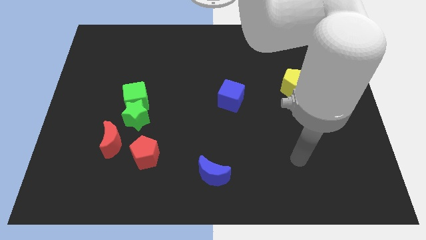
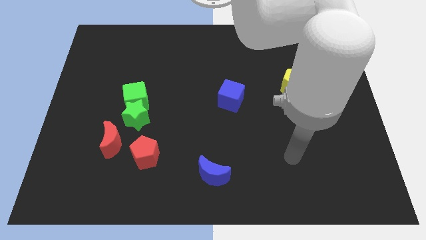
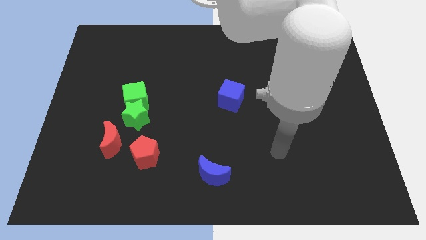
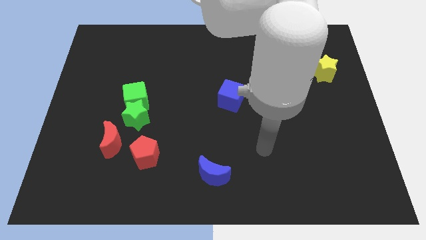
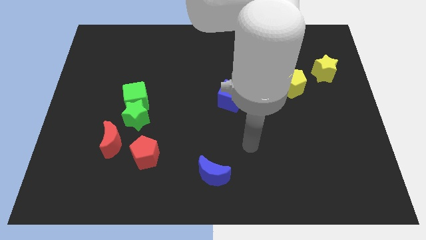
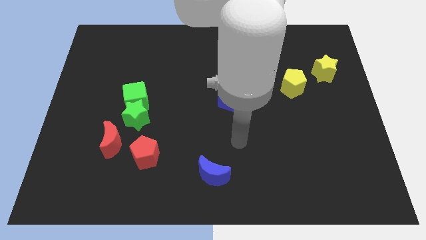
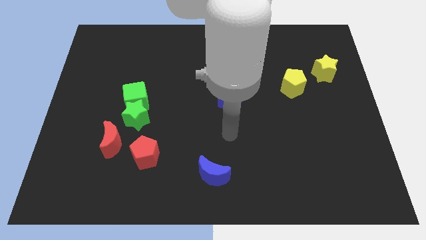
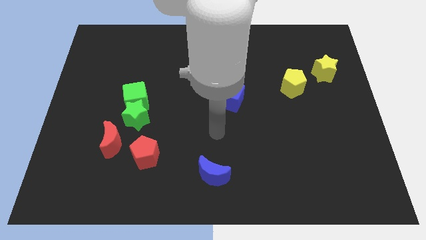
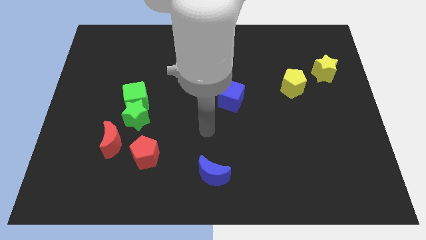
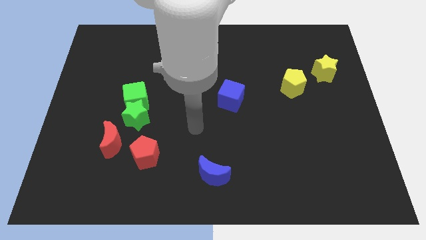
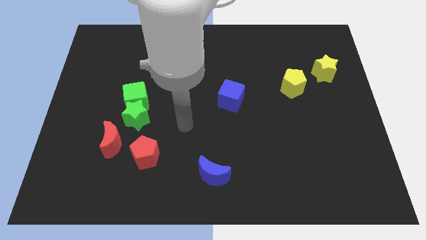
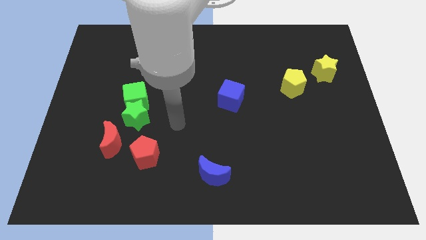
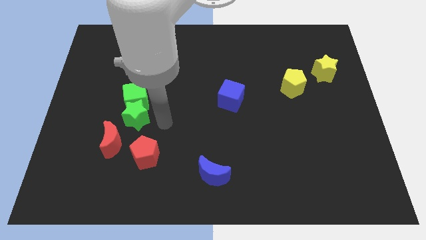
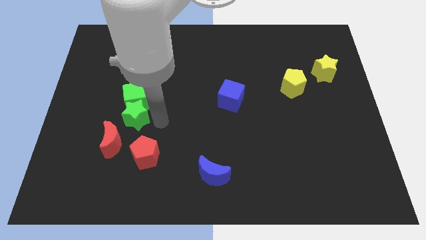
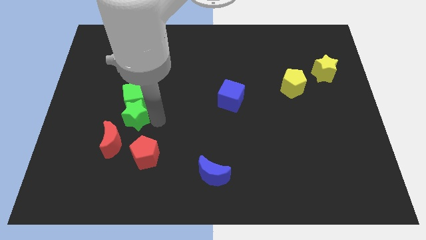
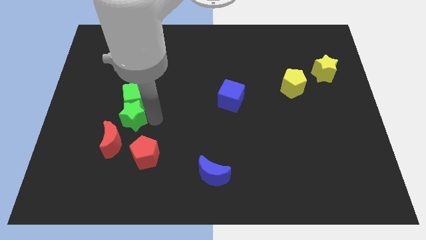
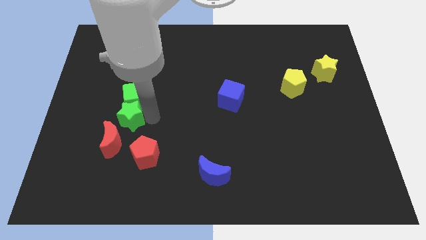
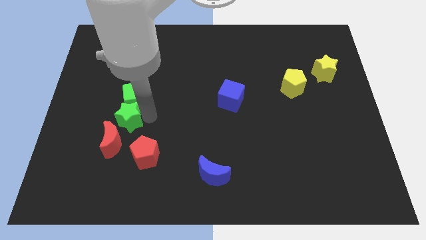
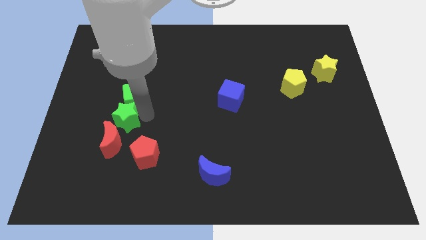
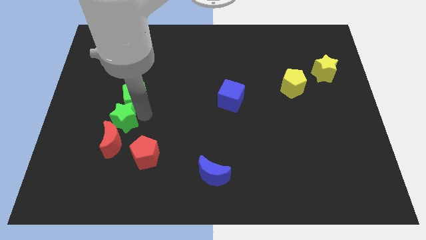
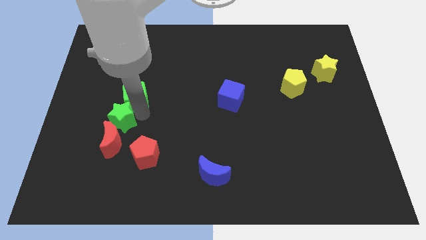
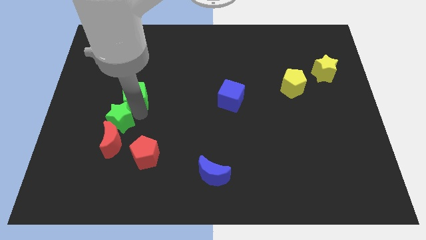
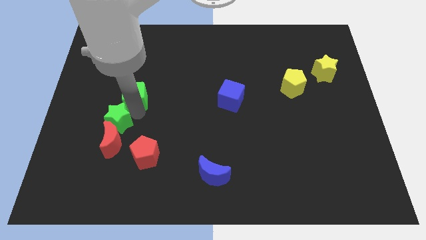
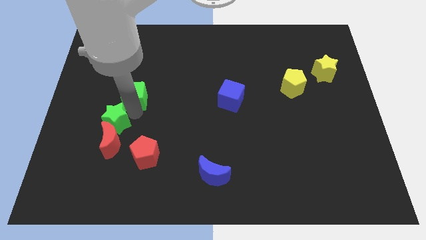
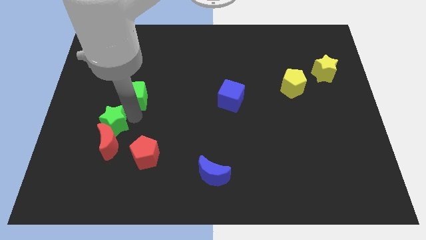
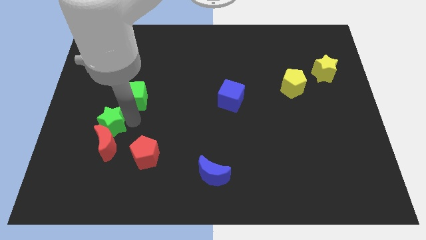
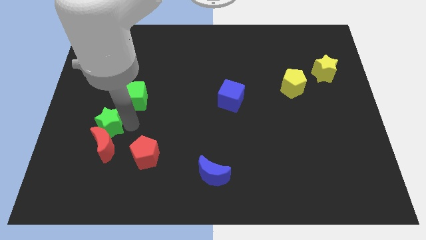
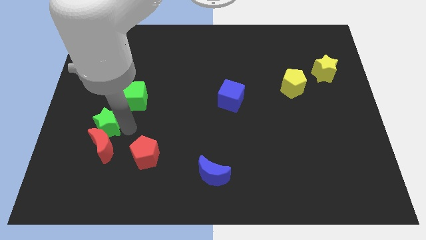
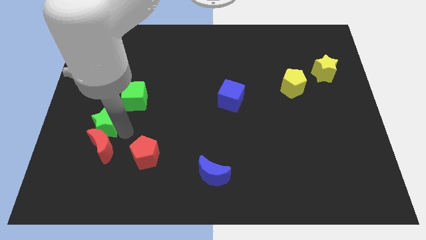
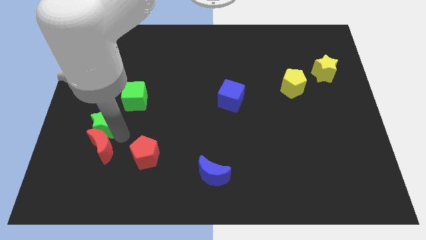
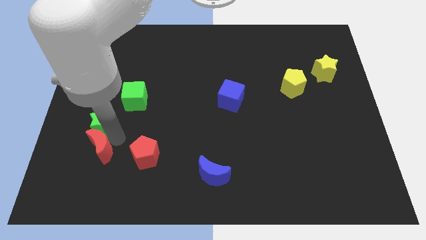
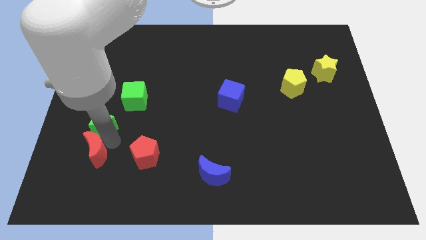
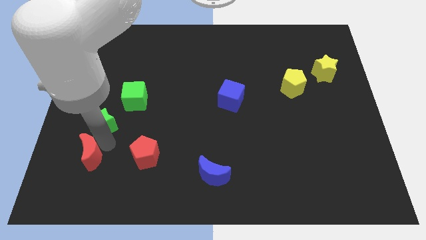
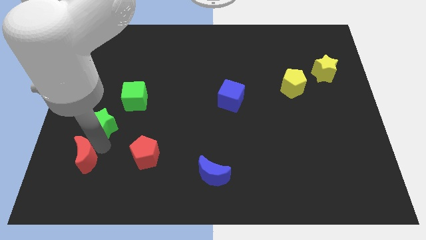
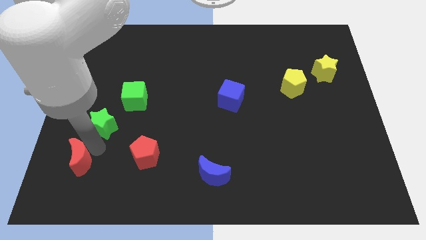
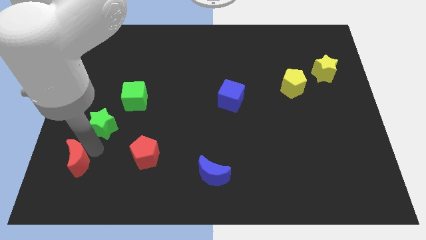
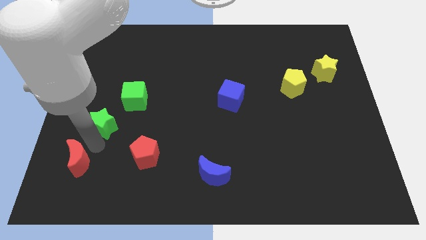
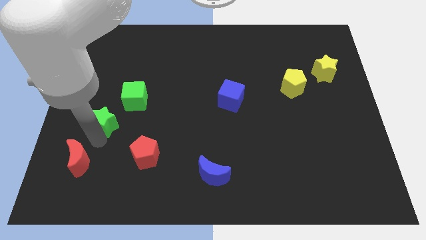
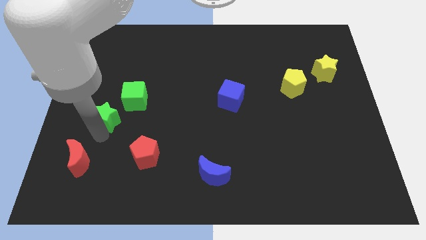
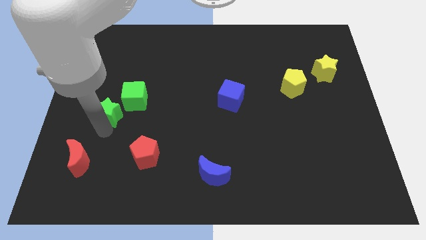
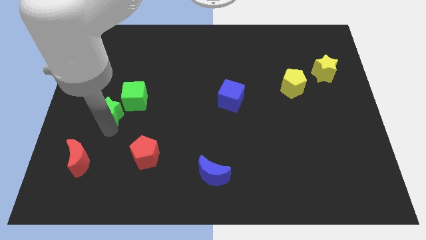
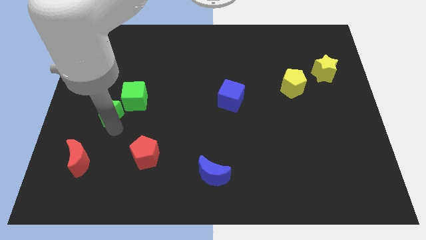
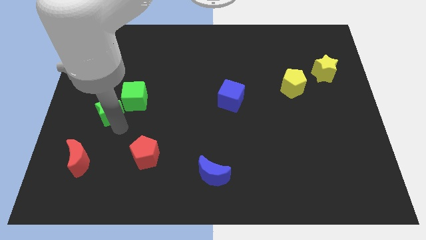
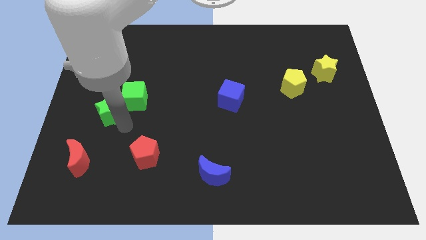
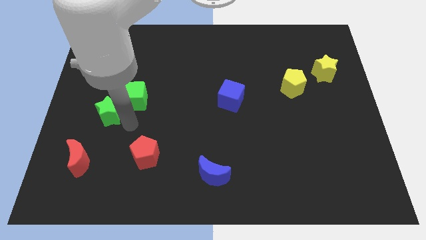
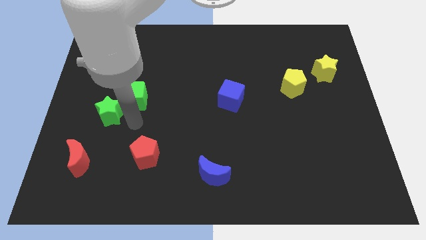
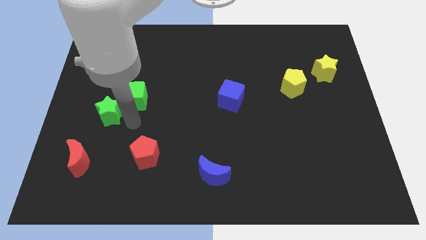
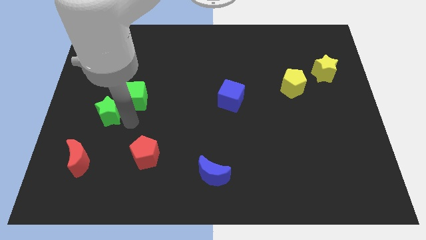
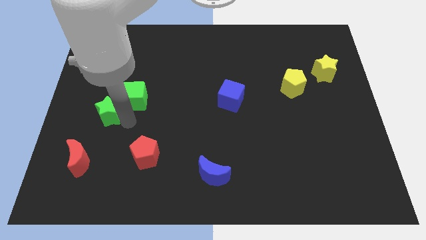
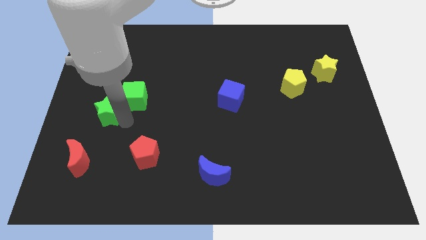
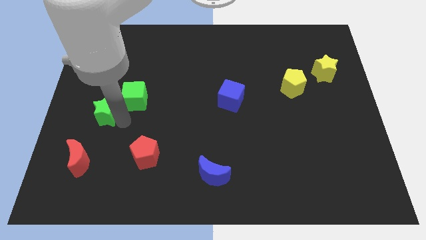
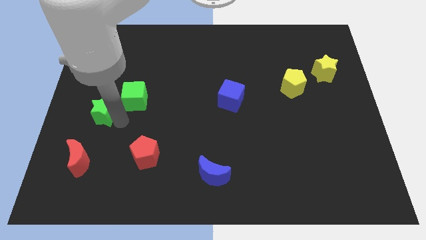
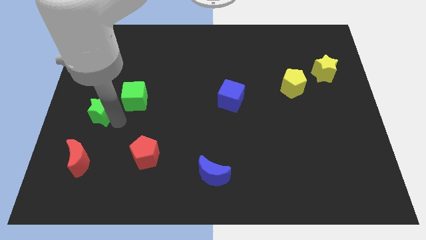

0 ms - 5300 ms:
put the green star to the left side of the board
